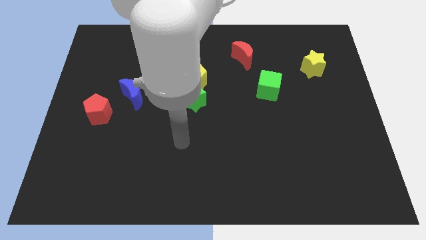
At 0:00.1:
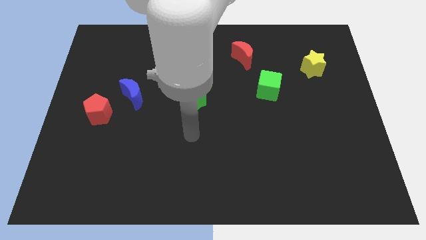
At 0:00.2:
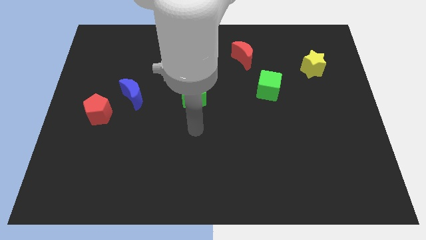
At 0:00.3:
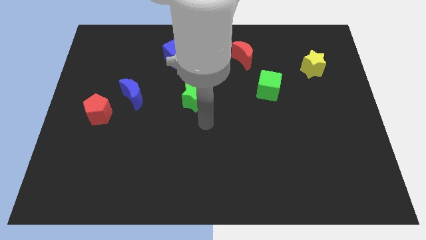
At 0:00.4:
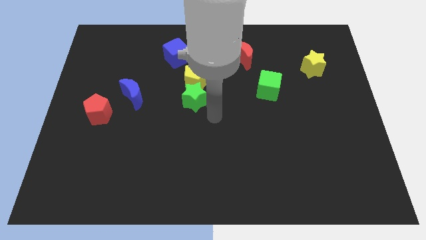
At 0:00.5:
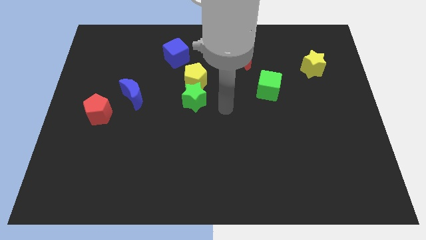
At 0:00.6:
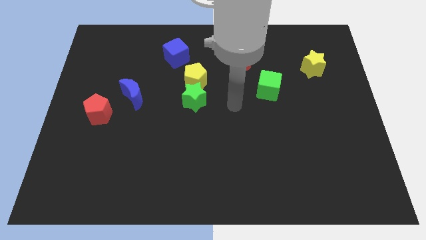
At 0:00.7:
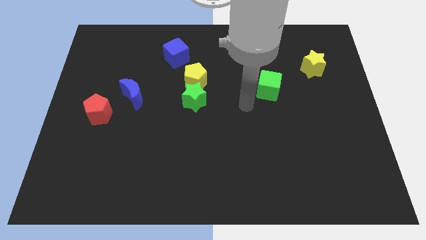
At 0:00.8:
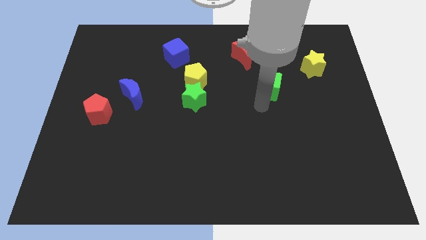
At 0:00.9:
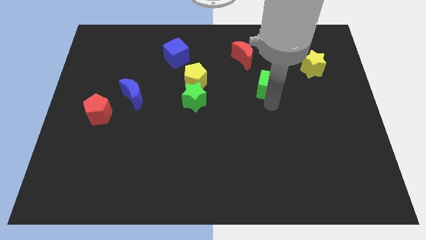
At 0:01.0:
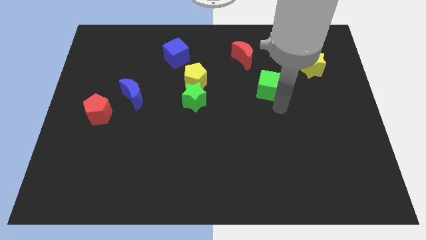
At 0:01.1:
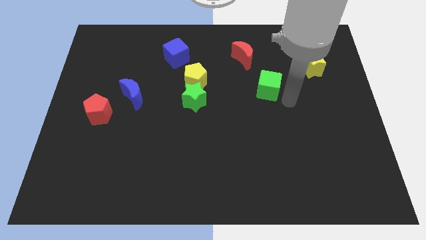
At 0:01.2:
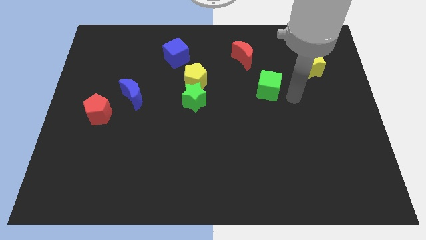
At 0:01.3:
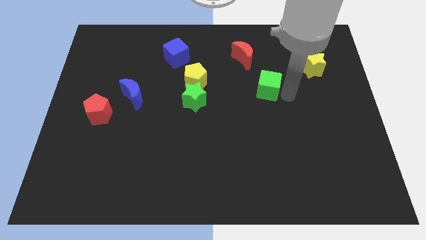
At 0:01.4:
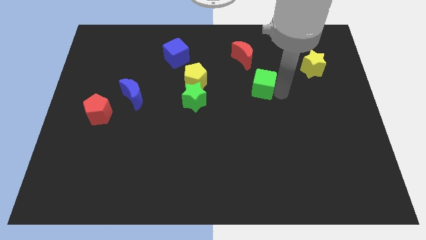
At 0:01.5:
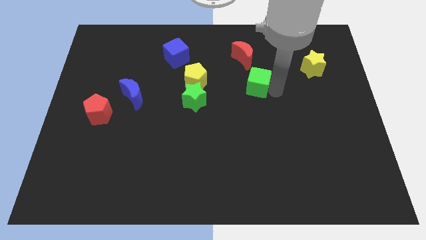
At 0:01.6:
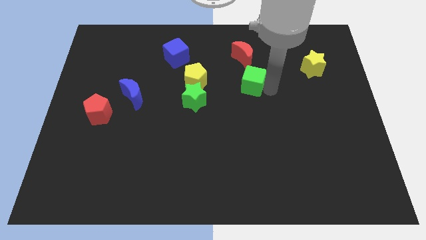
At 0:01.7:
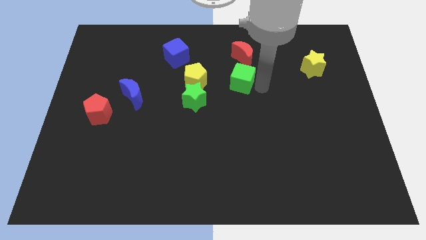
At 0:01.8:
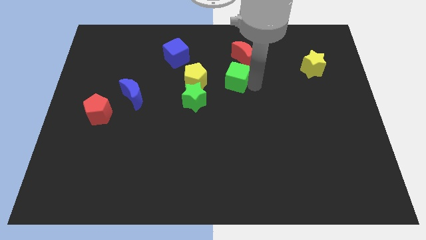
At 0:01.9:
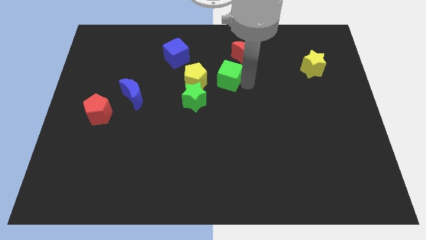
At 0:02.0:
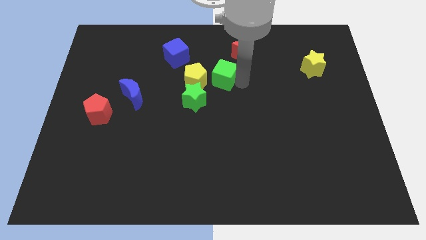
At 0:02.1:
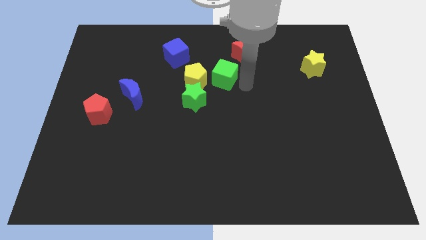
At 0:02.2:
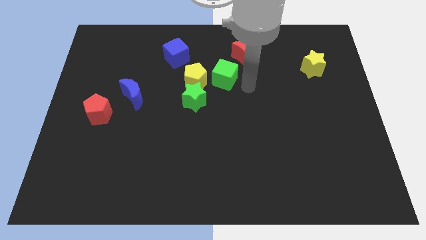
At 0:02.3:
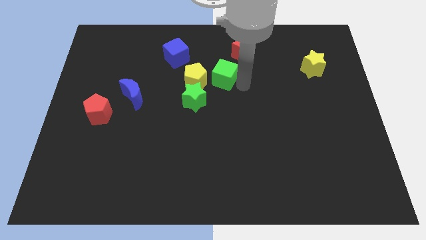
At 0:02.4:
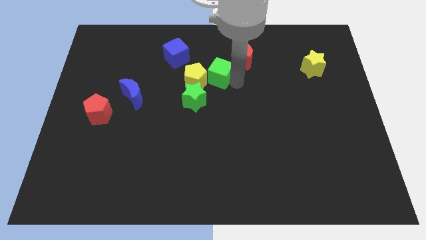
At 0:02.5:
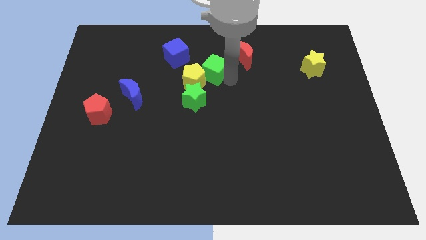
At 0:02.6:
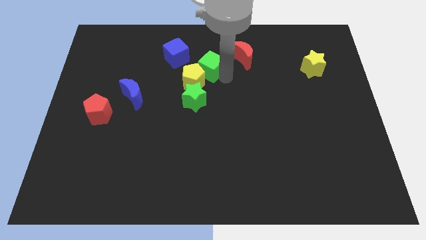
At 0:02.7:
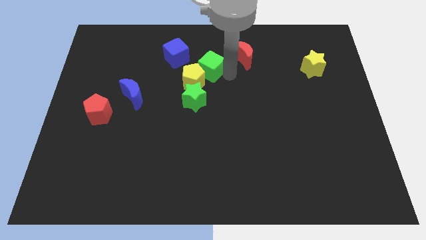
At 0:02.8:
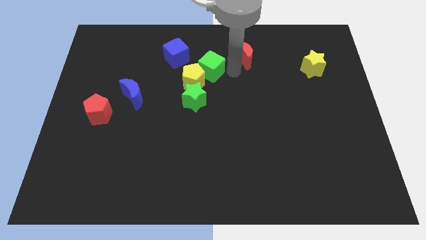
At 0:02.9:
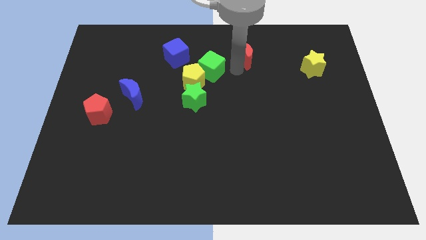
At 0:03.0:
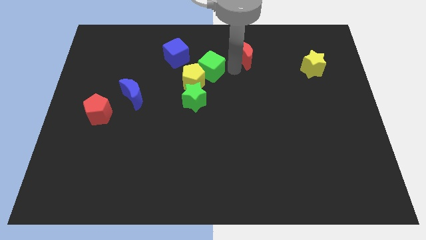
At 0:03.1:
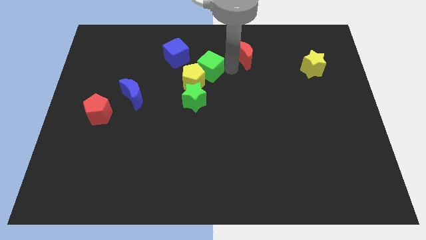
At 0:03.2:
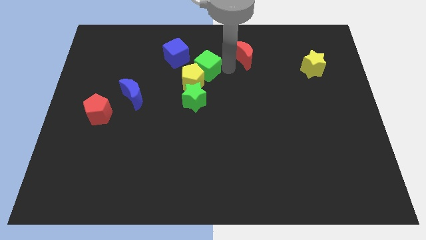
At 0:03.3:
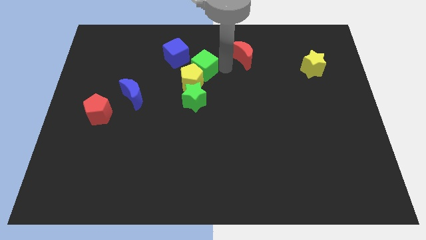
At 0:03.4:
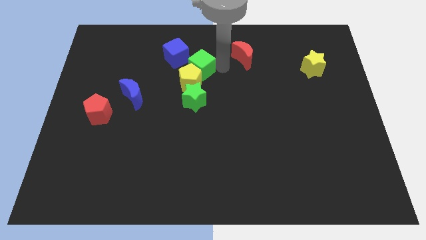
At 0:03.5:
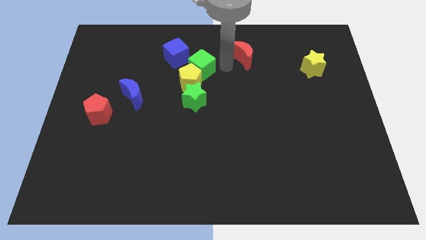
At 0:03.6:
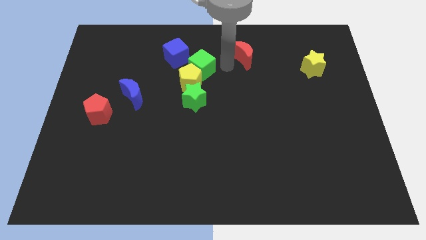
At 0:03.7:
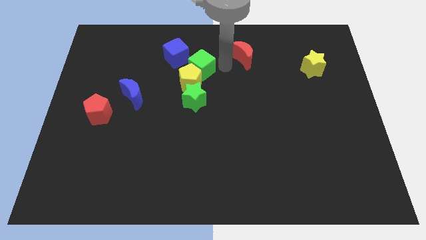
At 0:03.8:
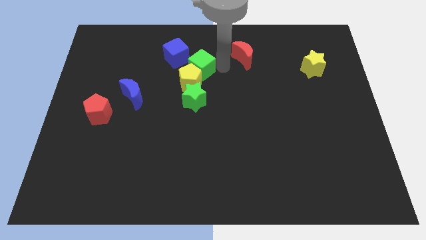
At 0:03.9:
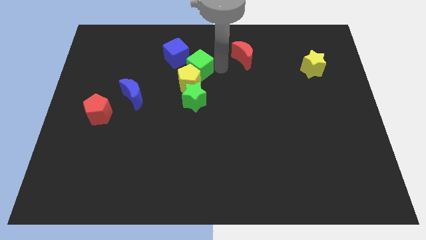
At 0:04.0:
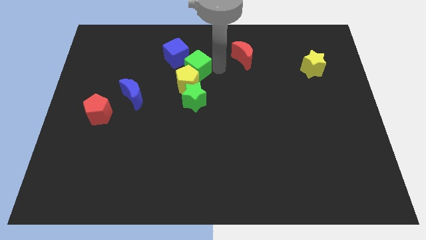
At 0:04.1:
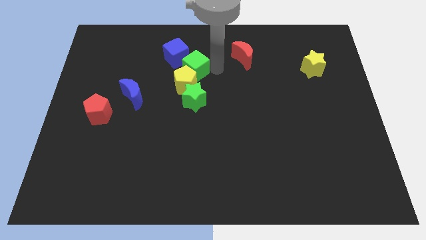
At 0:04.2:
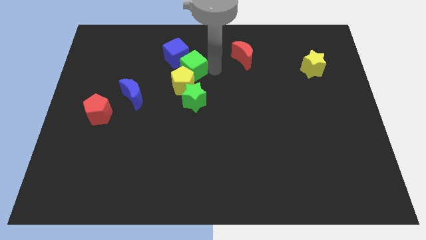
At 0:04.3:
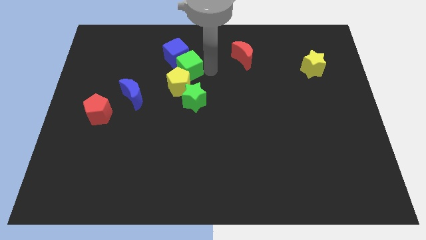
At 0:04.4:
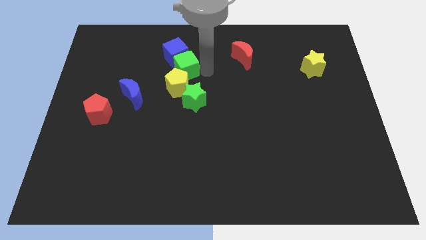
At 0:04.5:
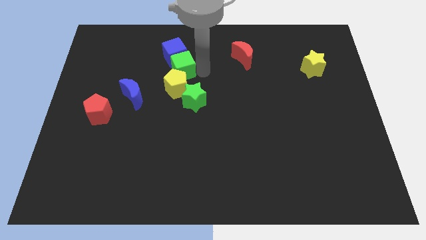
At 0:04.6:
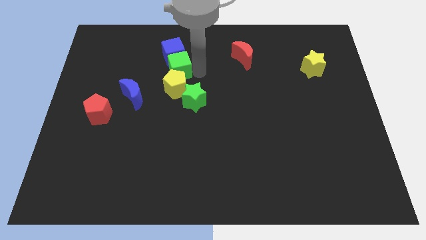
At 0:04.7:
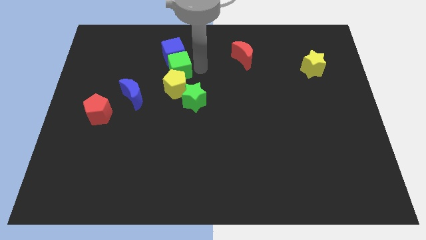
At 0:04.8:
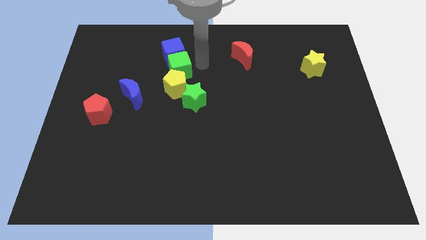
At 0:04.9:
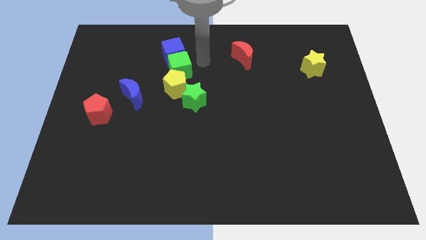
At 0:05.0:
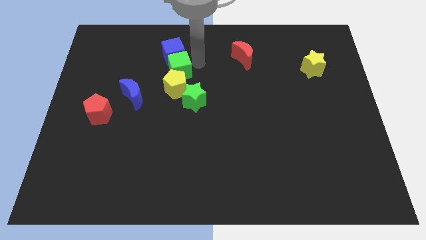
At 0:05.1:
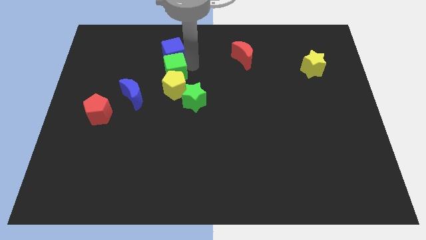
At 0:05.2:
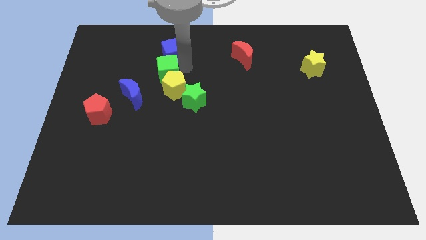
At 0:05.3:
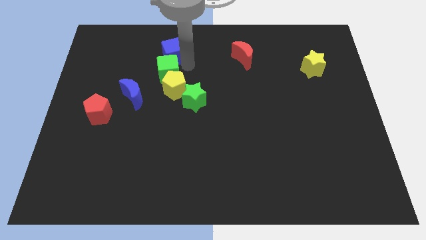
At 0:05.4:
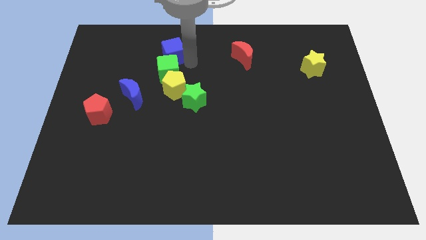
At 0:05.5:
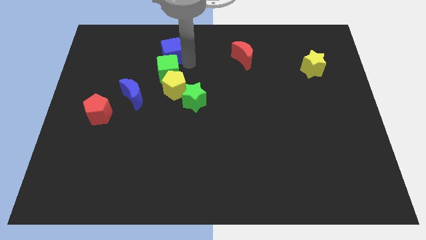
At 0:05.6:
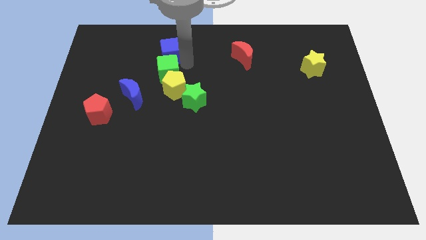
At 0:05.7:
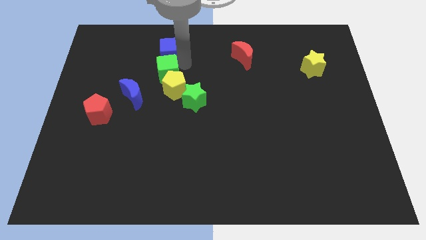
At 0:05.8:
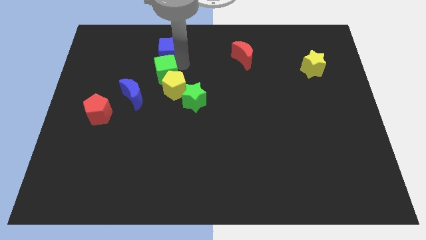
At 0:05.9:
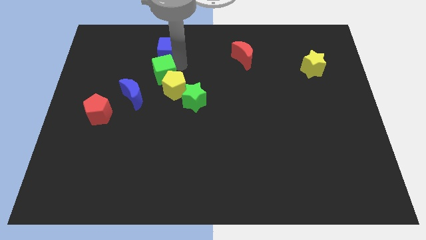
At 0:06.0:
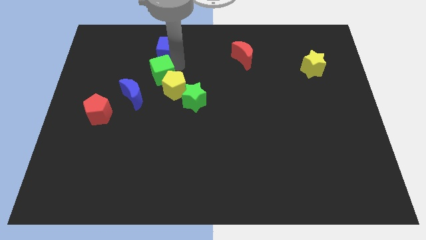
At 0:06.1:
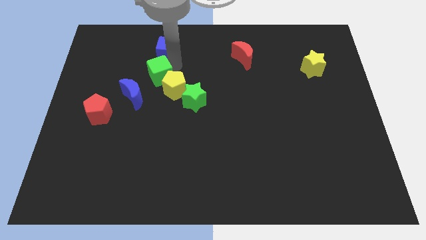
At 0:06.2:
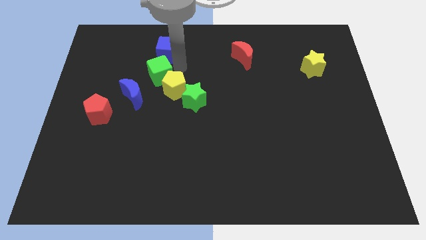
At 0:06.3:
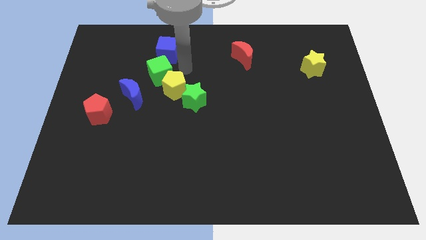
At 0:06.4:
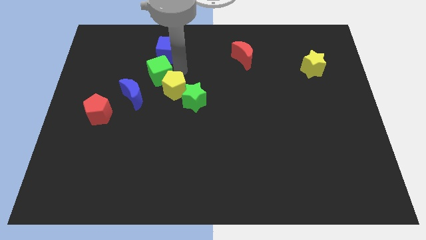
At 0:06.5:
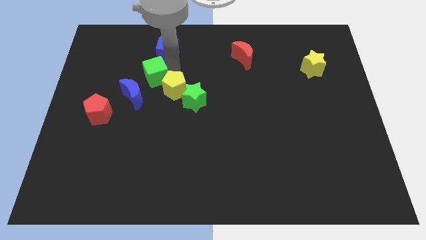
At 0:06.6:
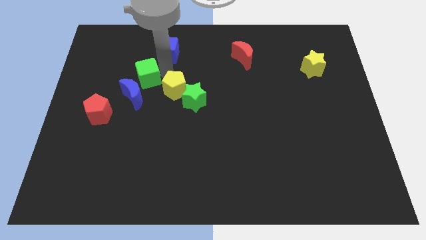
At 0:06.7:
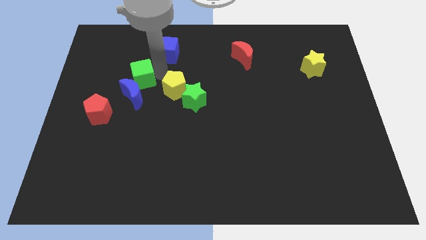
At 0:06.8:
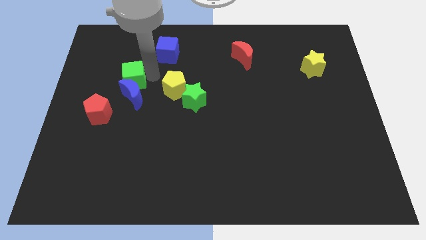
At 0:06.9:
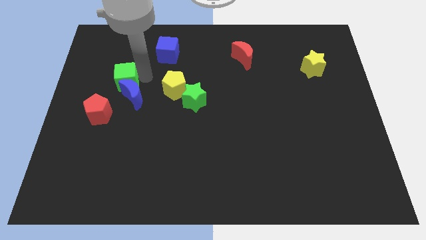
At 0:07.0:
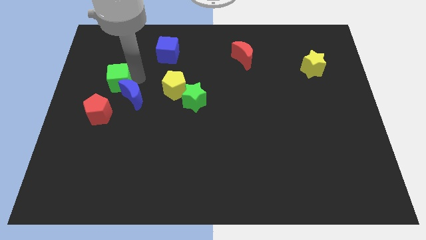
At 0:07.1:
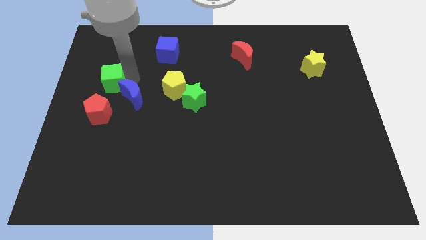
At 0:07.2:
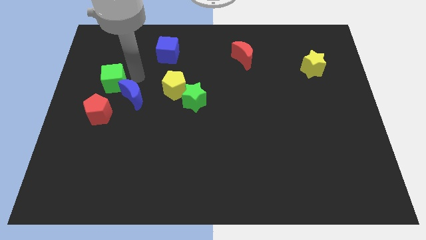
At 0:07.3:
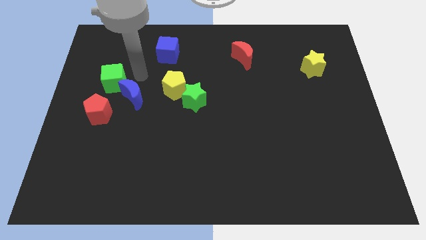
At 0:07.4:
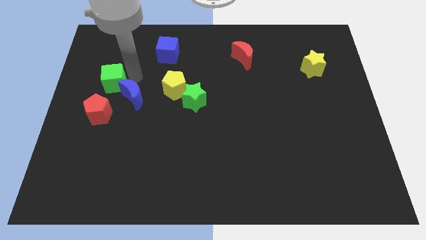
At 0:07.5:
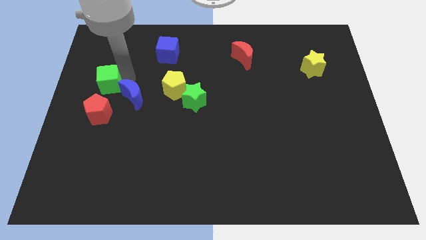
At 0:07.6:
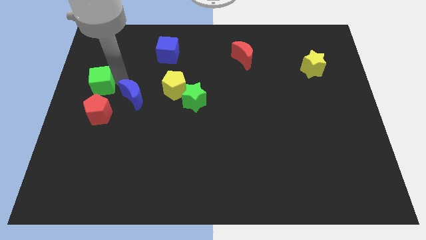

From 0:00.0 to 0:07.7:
put the green cube to the center left
